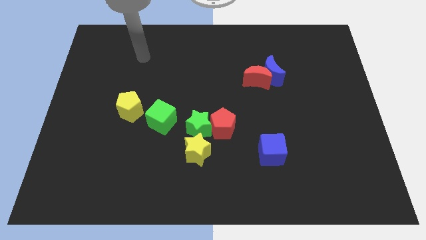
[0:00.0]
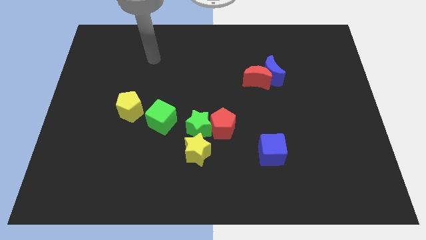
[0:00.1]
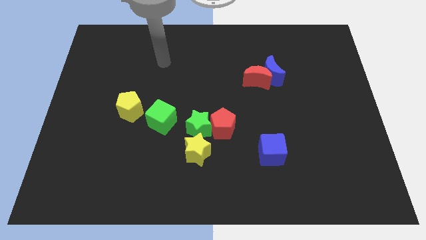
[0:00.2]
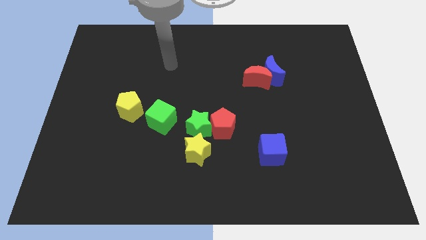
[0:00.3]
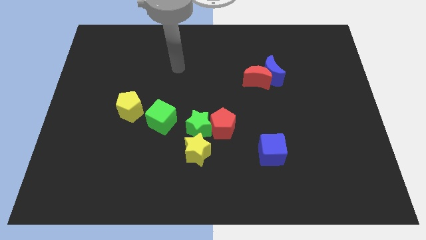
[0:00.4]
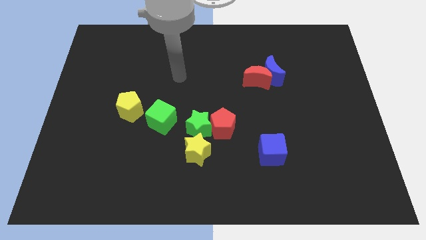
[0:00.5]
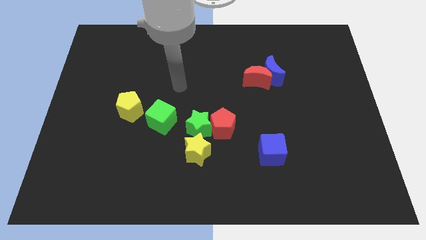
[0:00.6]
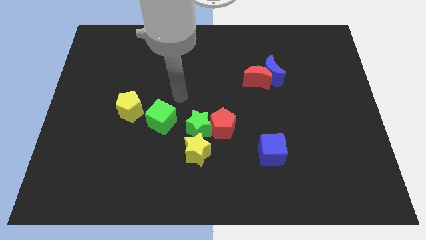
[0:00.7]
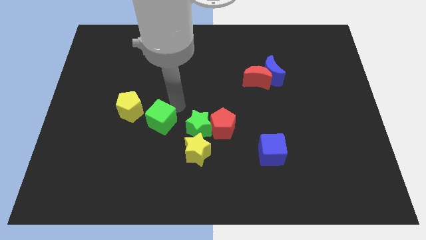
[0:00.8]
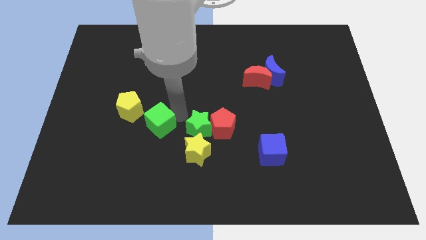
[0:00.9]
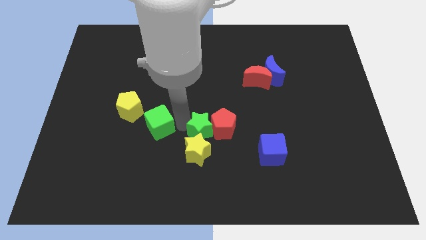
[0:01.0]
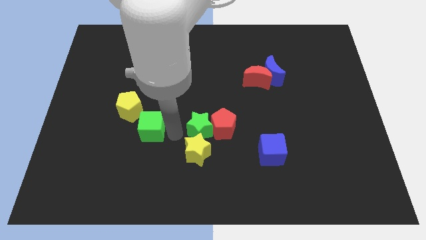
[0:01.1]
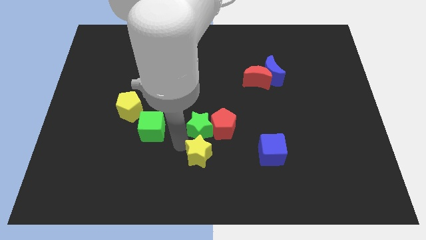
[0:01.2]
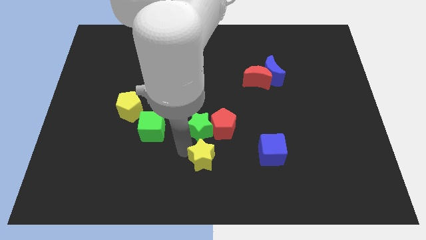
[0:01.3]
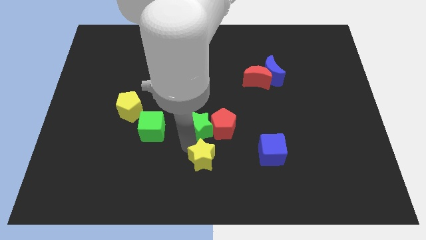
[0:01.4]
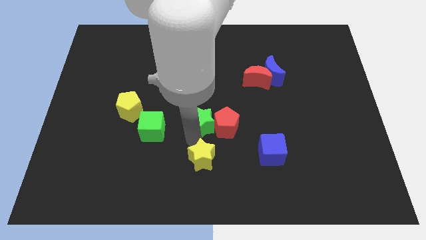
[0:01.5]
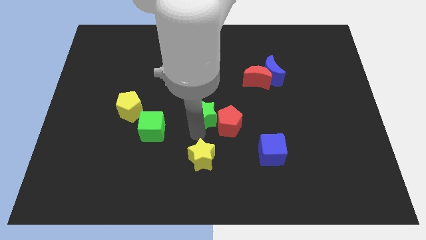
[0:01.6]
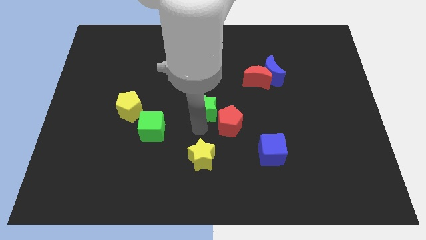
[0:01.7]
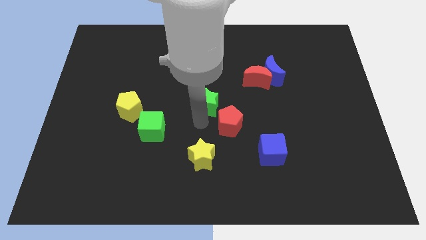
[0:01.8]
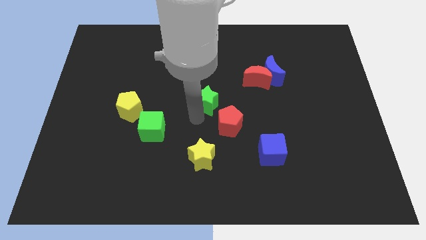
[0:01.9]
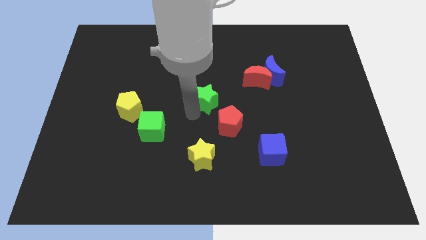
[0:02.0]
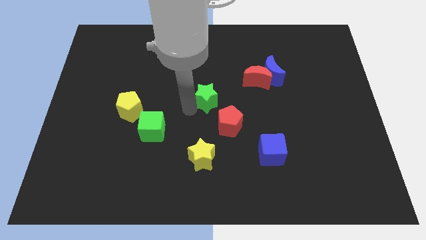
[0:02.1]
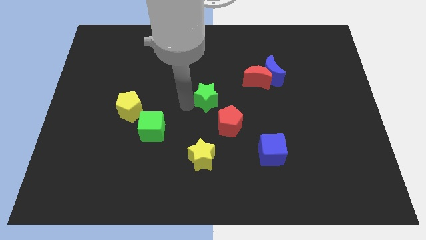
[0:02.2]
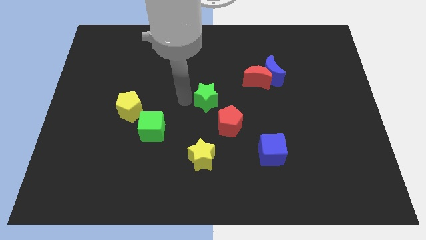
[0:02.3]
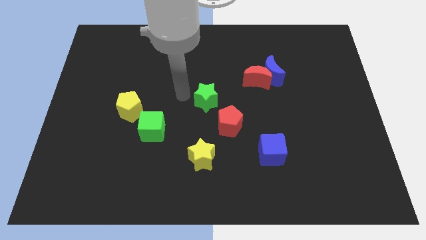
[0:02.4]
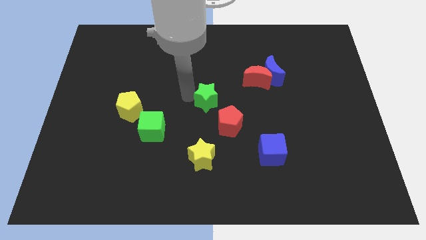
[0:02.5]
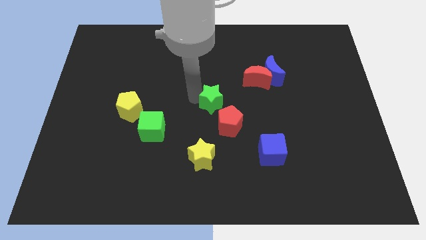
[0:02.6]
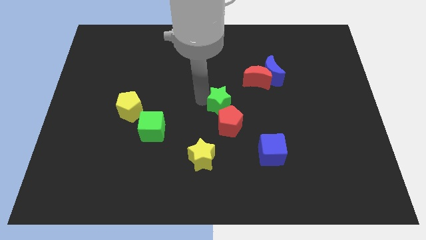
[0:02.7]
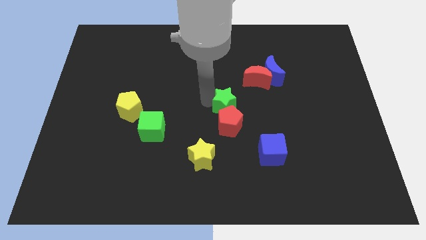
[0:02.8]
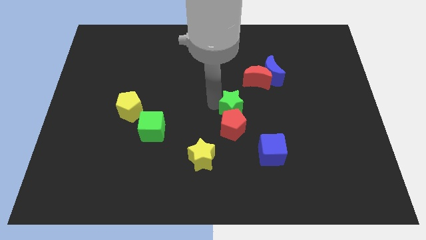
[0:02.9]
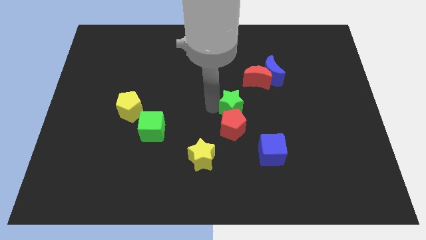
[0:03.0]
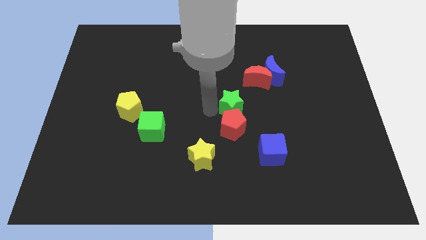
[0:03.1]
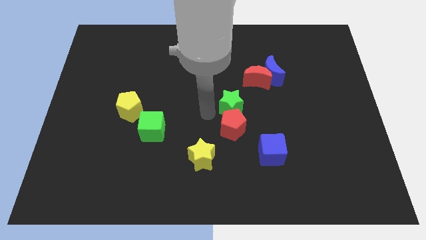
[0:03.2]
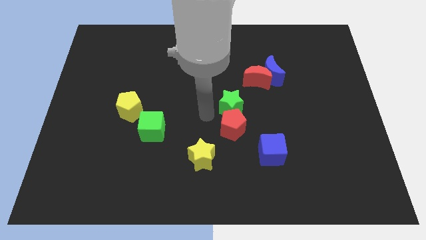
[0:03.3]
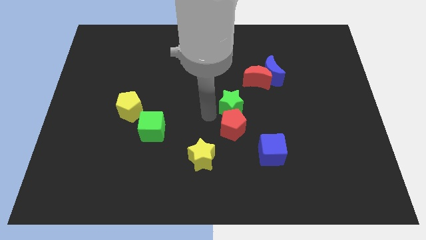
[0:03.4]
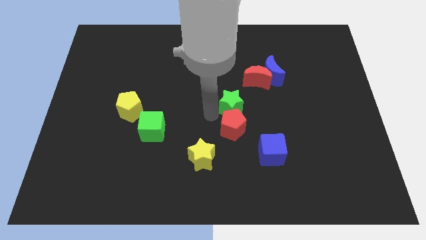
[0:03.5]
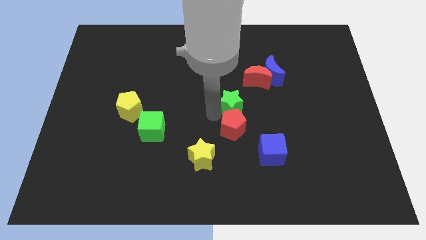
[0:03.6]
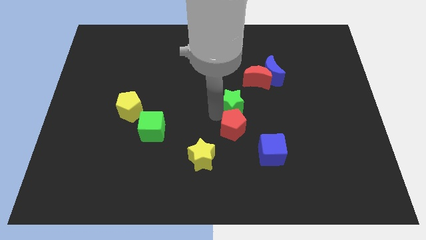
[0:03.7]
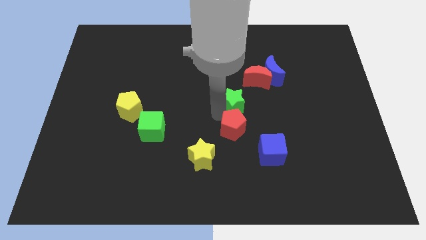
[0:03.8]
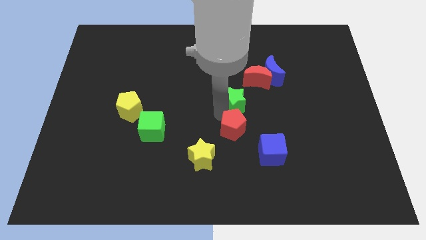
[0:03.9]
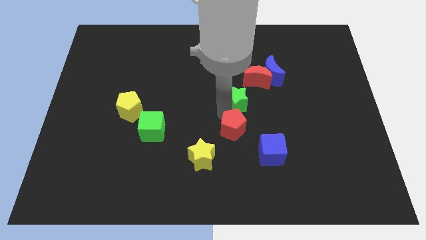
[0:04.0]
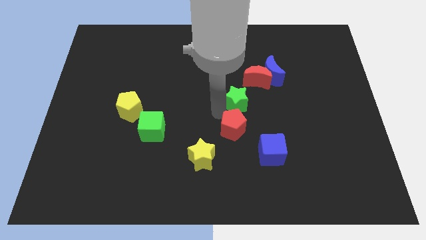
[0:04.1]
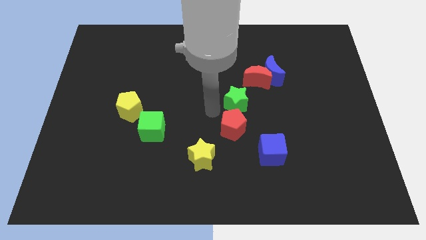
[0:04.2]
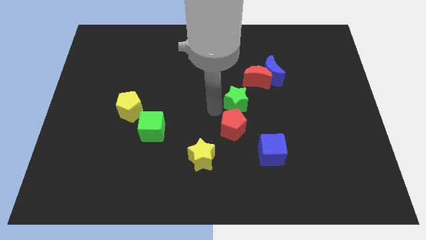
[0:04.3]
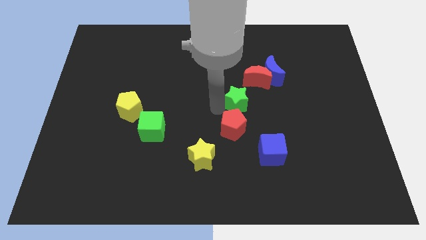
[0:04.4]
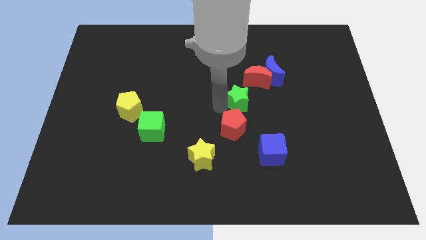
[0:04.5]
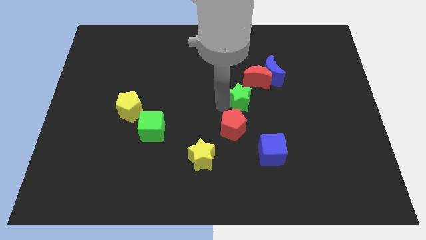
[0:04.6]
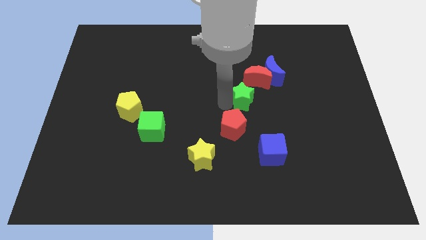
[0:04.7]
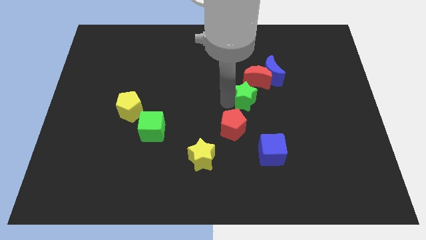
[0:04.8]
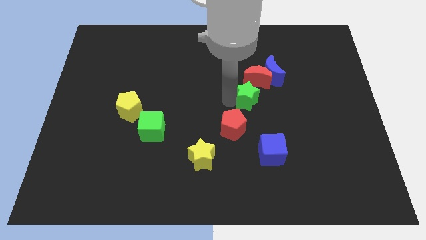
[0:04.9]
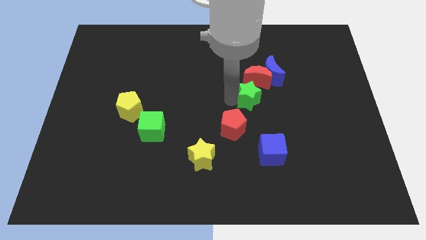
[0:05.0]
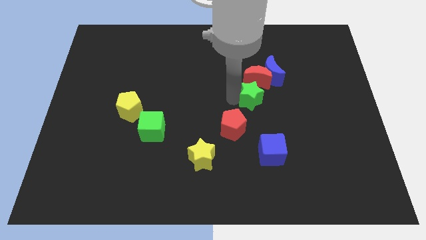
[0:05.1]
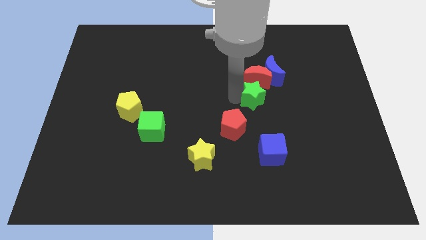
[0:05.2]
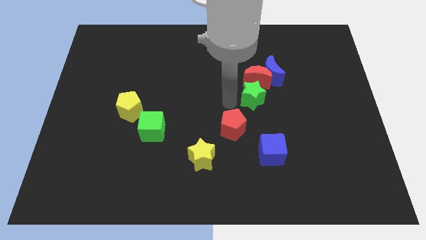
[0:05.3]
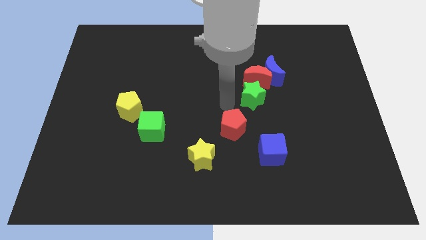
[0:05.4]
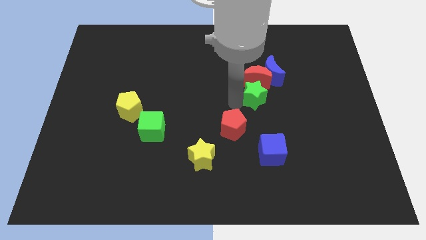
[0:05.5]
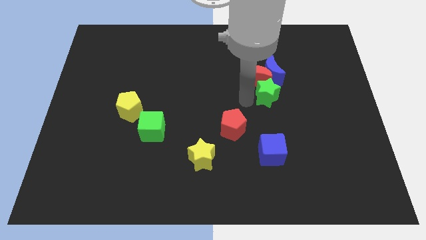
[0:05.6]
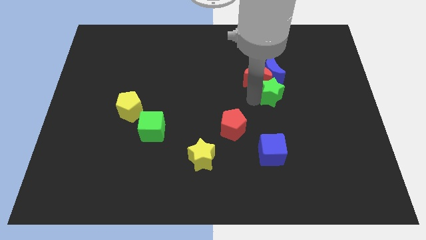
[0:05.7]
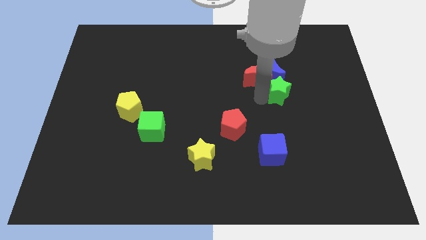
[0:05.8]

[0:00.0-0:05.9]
move the green star to the bottom right side of the blue moon

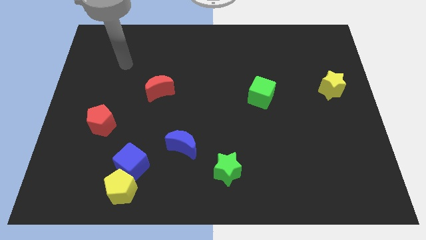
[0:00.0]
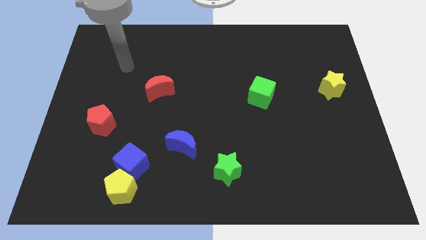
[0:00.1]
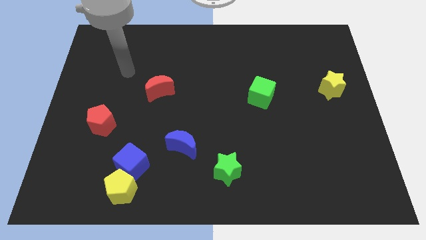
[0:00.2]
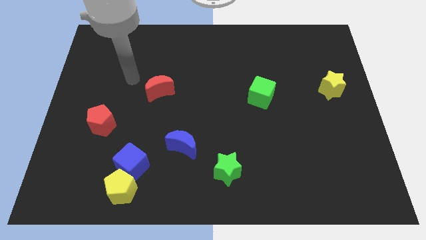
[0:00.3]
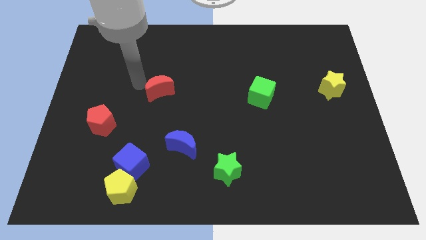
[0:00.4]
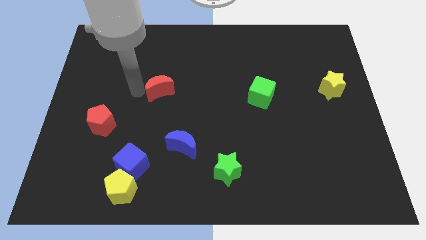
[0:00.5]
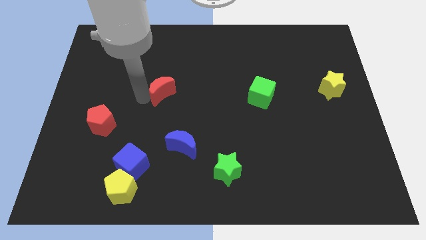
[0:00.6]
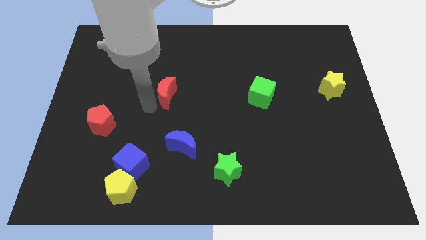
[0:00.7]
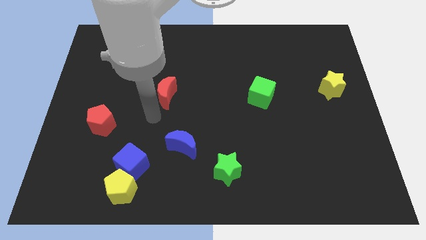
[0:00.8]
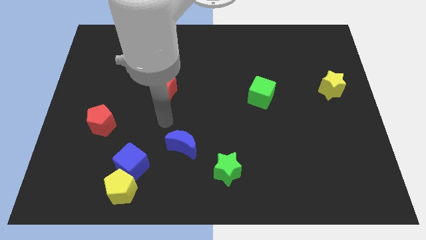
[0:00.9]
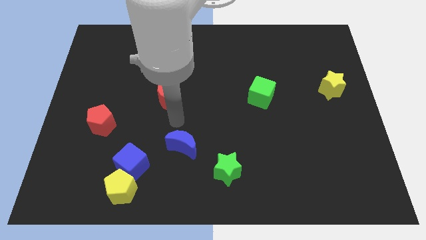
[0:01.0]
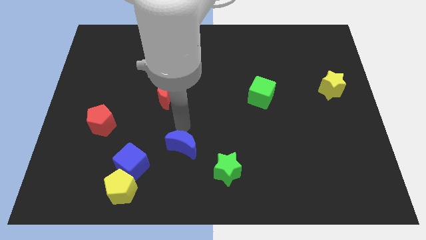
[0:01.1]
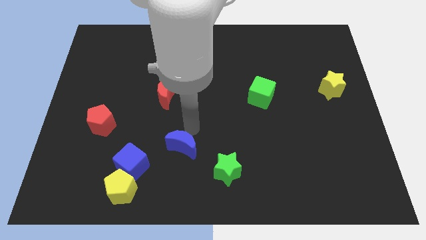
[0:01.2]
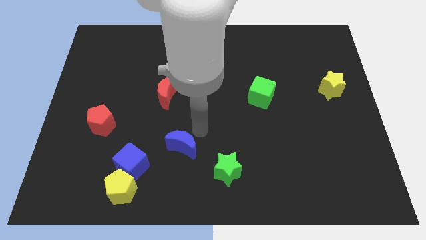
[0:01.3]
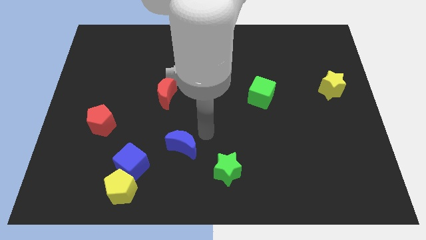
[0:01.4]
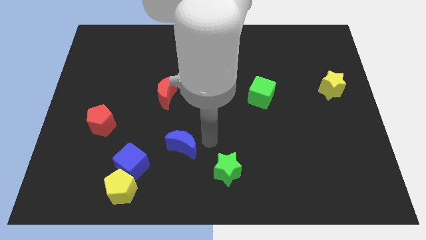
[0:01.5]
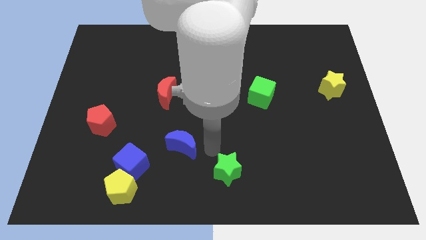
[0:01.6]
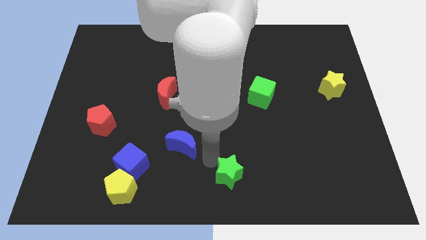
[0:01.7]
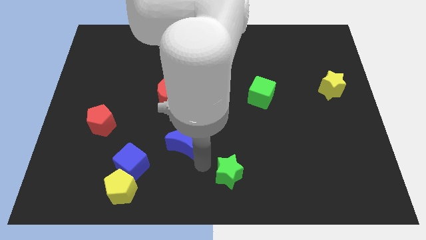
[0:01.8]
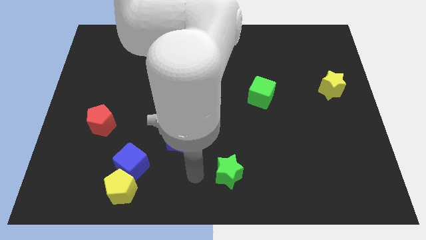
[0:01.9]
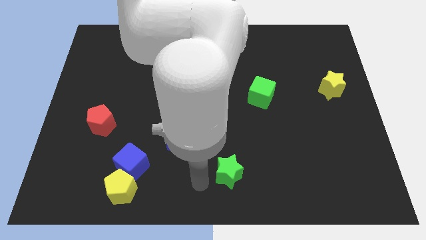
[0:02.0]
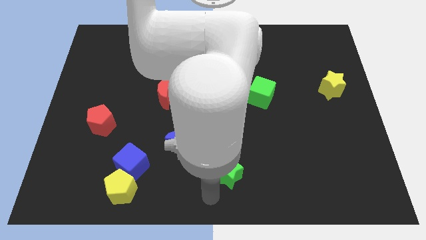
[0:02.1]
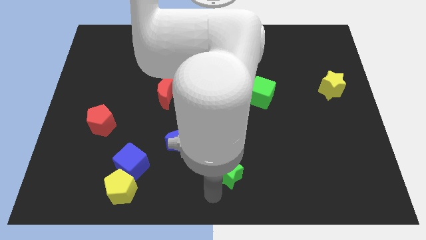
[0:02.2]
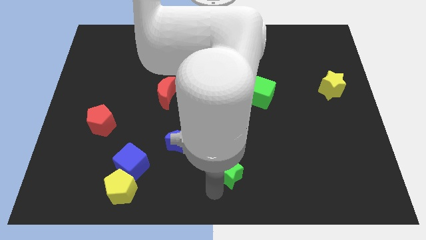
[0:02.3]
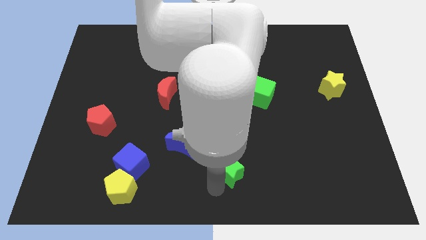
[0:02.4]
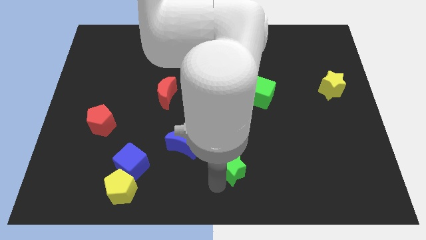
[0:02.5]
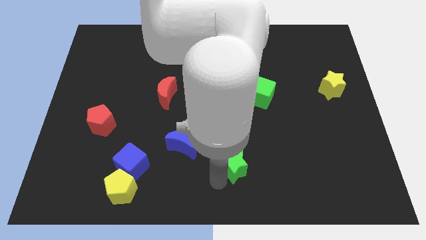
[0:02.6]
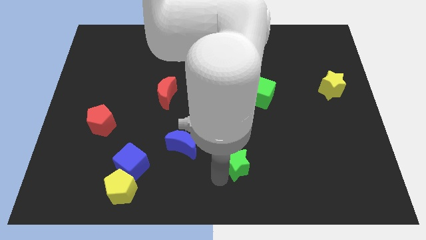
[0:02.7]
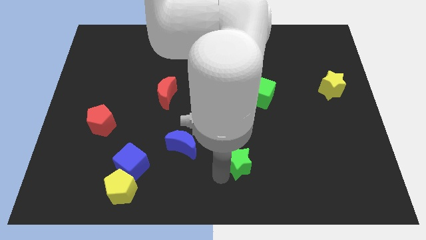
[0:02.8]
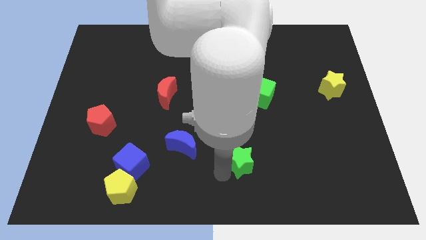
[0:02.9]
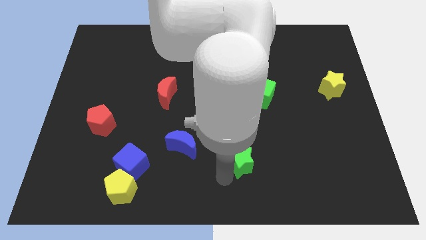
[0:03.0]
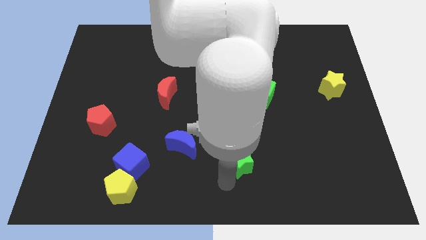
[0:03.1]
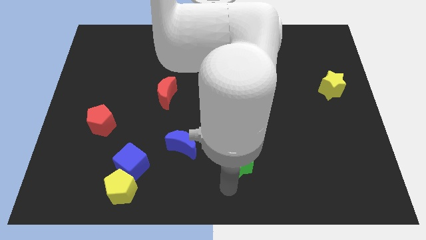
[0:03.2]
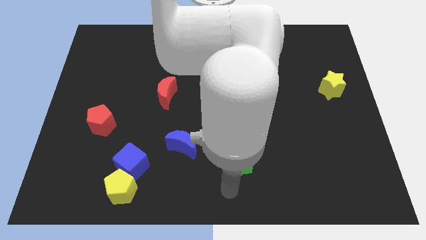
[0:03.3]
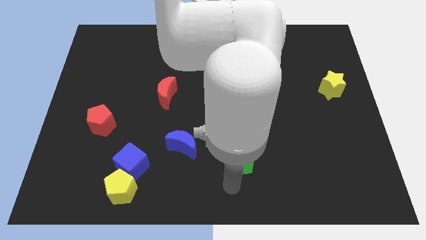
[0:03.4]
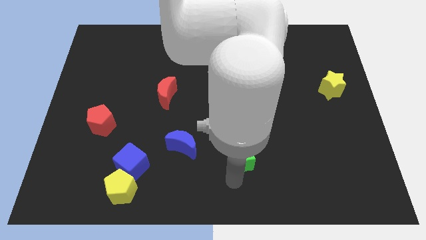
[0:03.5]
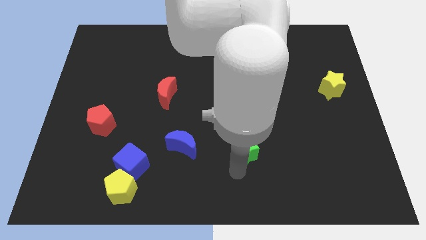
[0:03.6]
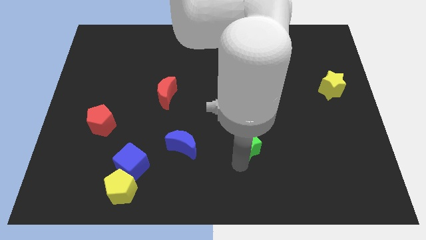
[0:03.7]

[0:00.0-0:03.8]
put the green star below the green cube
